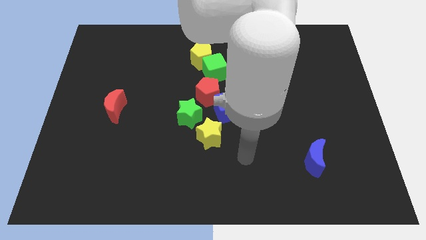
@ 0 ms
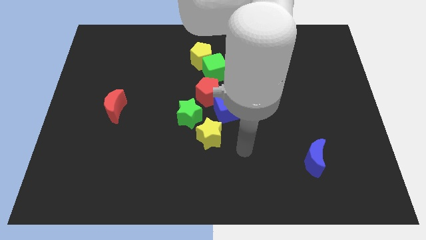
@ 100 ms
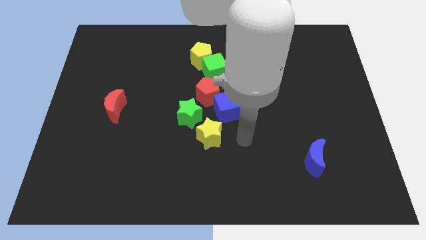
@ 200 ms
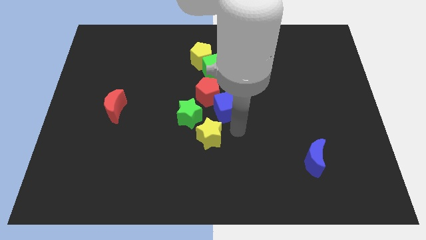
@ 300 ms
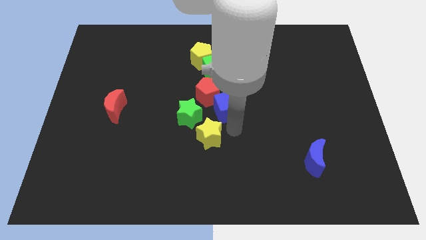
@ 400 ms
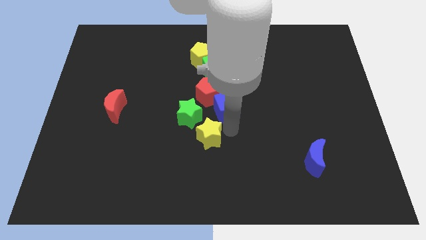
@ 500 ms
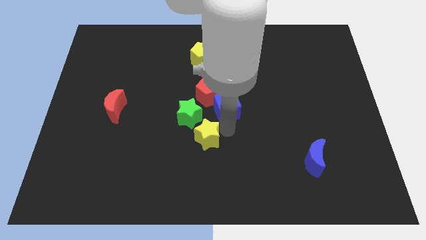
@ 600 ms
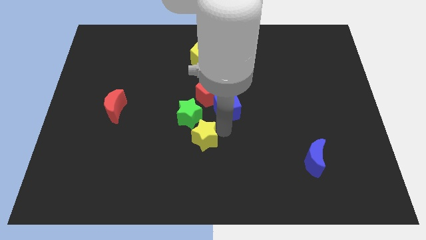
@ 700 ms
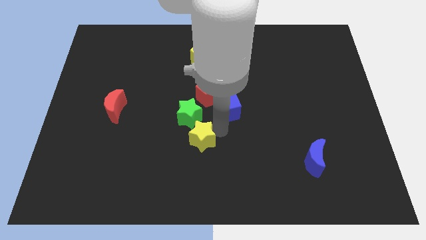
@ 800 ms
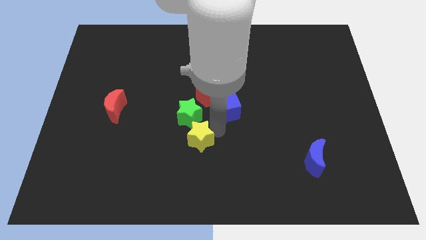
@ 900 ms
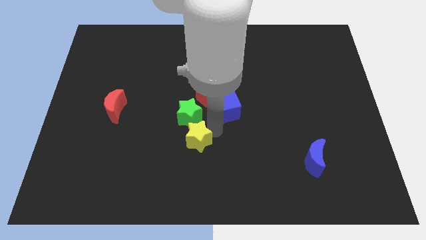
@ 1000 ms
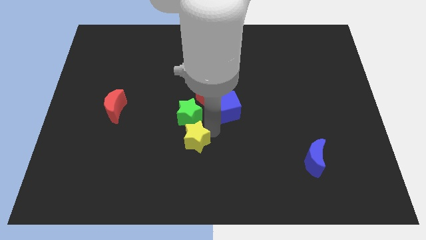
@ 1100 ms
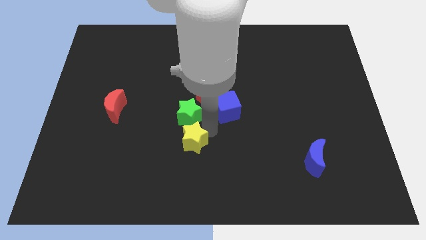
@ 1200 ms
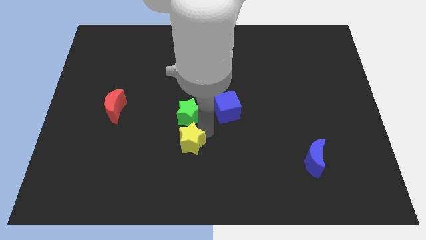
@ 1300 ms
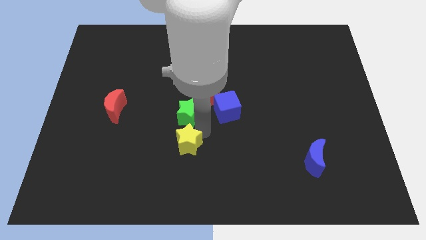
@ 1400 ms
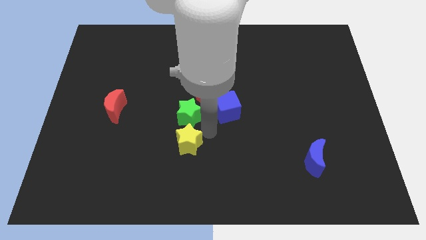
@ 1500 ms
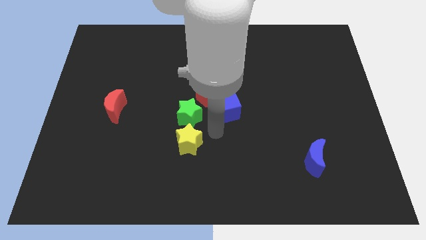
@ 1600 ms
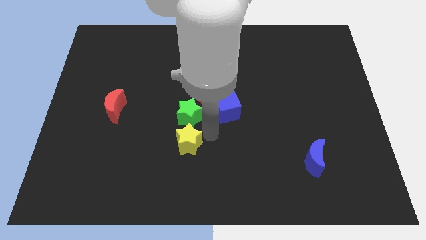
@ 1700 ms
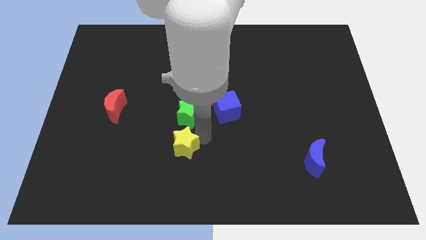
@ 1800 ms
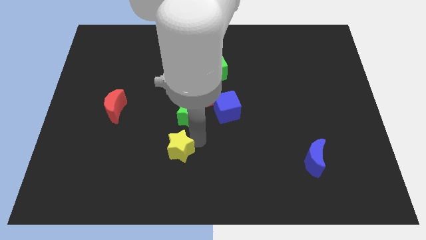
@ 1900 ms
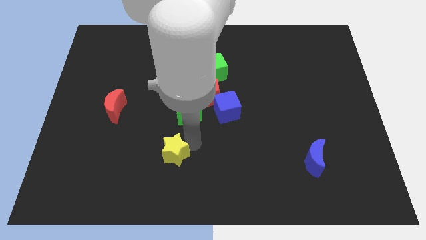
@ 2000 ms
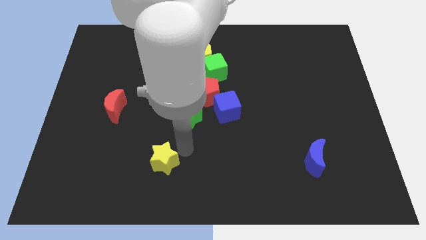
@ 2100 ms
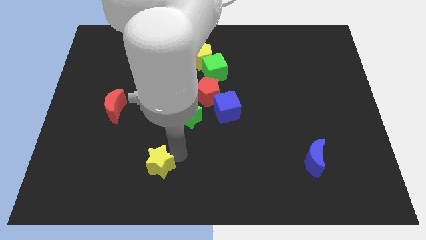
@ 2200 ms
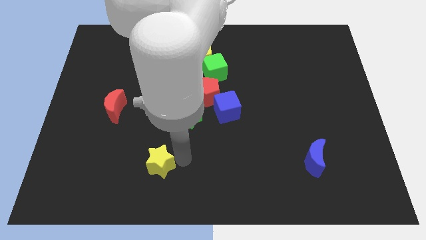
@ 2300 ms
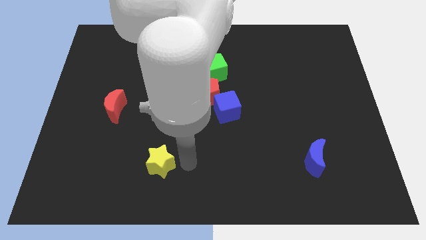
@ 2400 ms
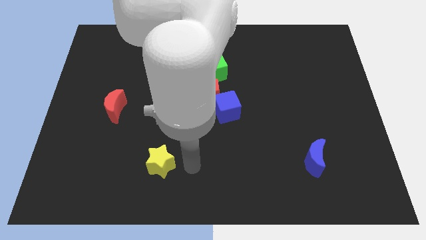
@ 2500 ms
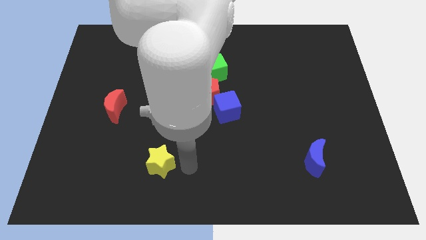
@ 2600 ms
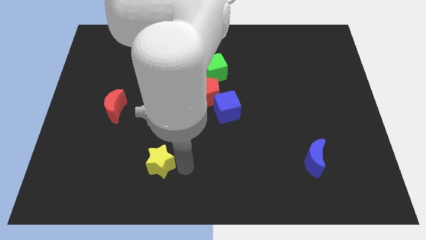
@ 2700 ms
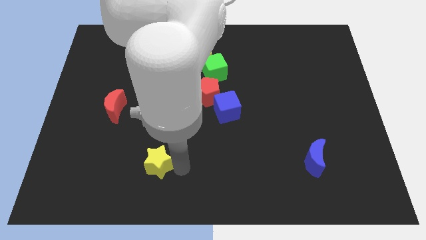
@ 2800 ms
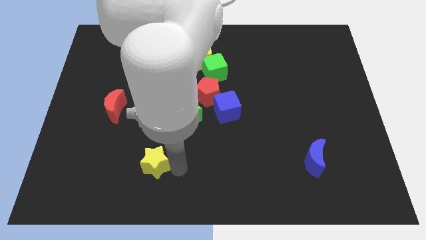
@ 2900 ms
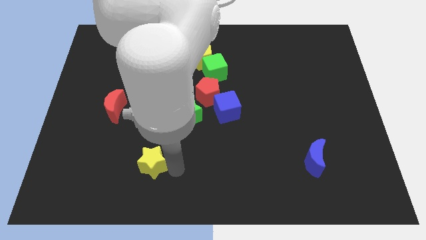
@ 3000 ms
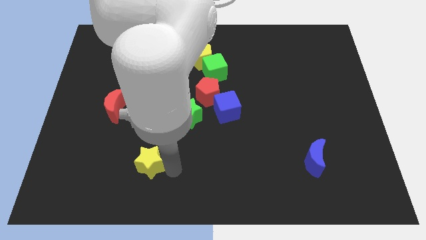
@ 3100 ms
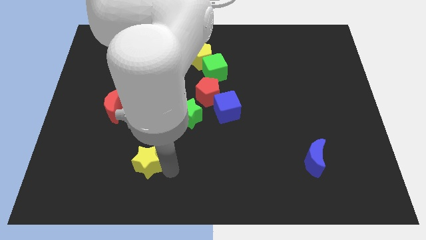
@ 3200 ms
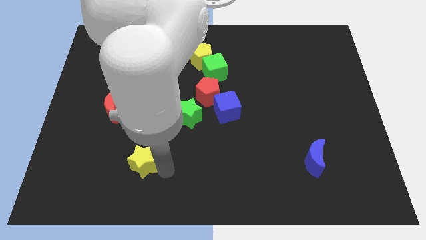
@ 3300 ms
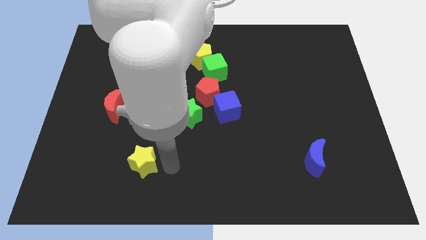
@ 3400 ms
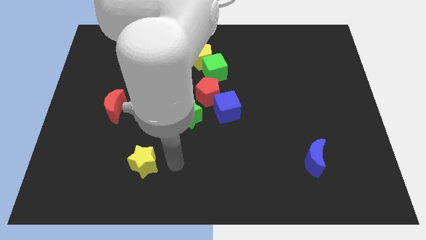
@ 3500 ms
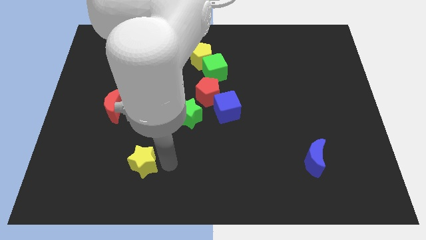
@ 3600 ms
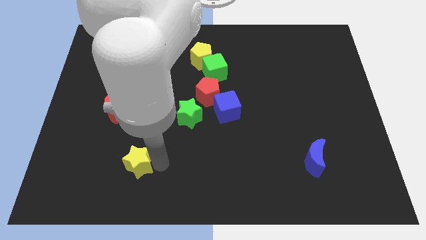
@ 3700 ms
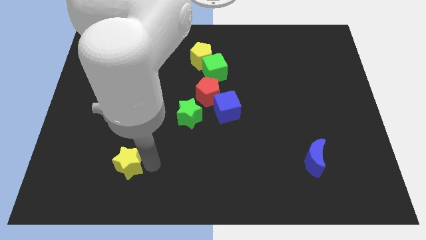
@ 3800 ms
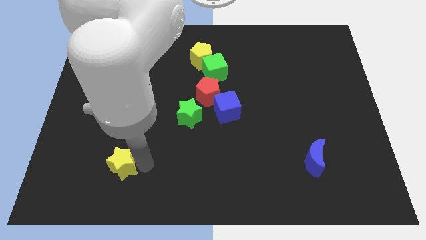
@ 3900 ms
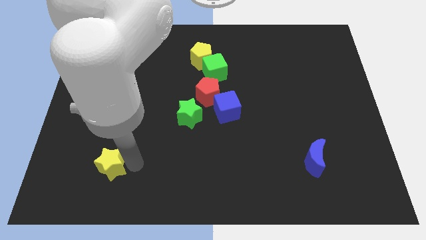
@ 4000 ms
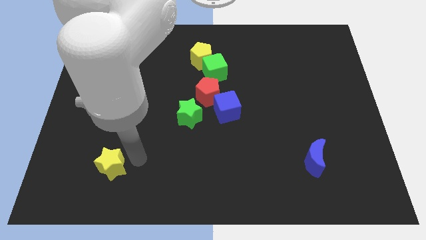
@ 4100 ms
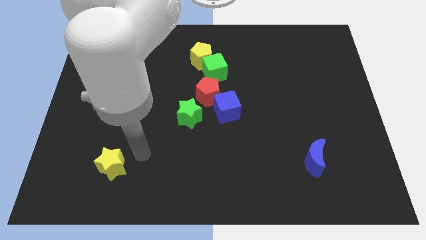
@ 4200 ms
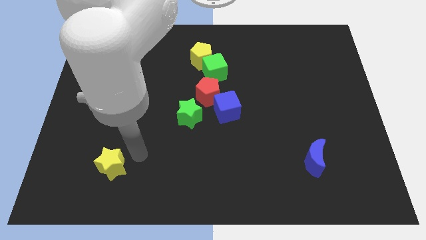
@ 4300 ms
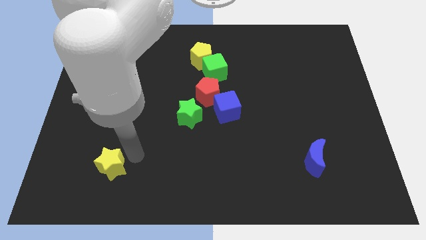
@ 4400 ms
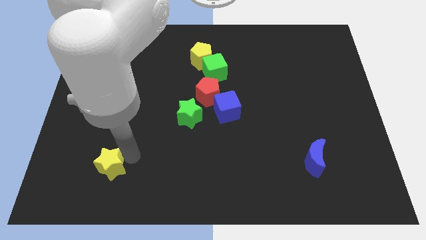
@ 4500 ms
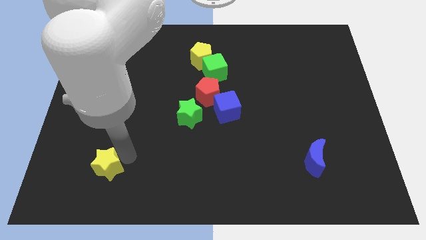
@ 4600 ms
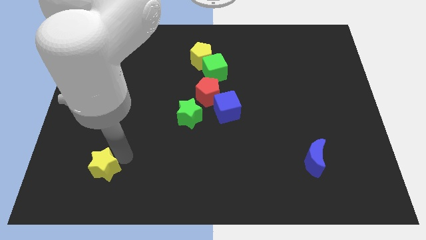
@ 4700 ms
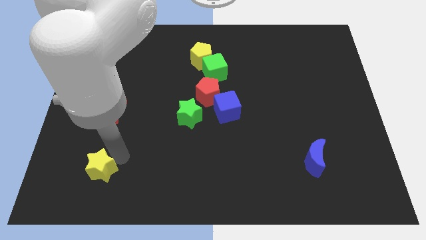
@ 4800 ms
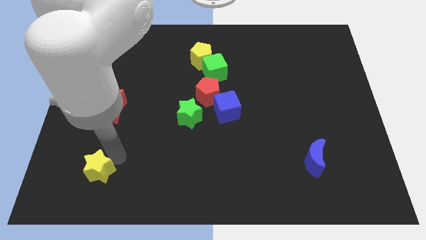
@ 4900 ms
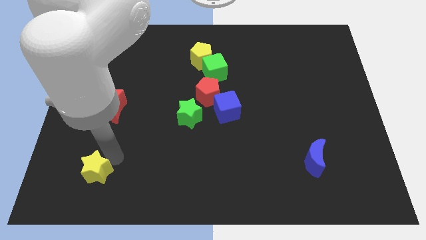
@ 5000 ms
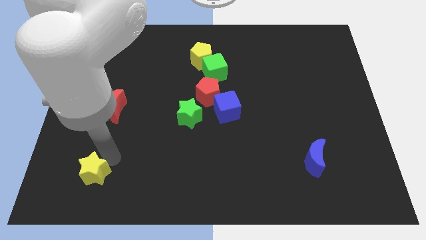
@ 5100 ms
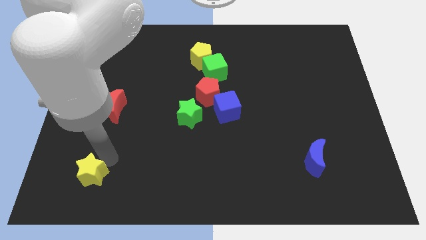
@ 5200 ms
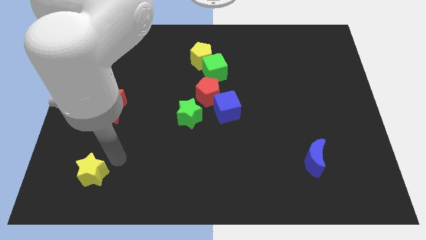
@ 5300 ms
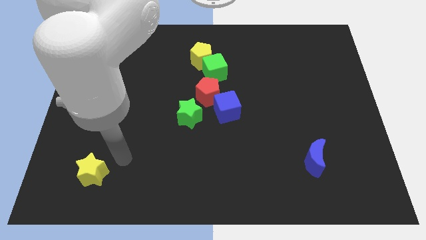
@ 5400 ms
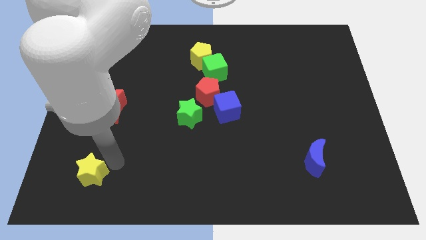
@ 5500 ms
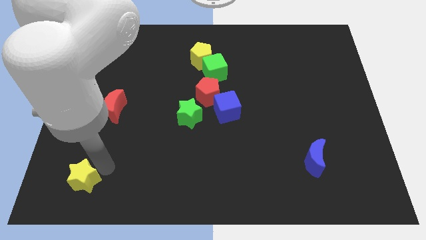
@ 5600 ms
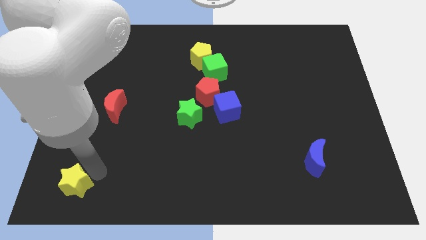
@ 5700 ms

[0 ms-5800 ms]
push the yellow star to the bottom left corner

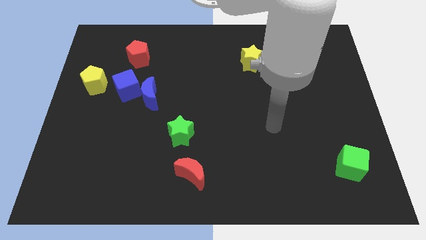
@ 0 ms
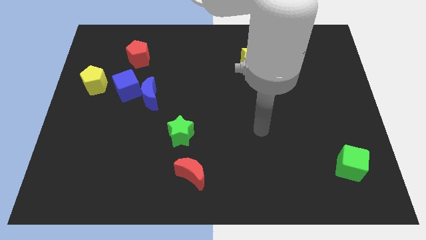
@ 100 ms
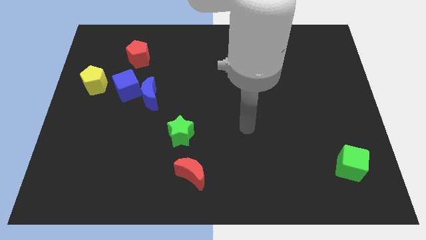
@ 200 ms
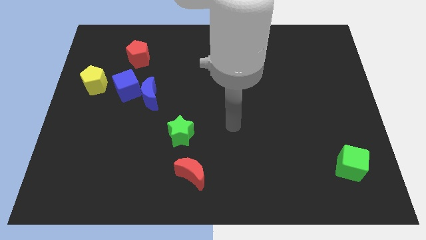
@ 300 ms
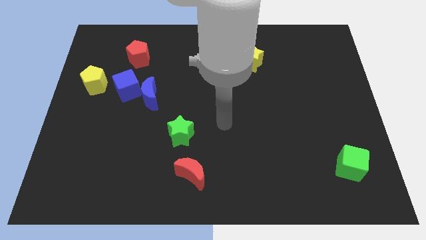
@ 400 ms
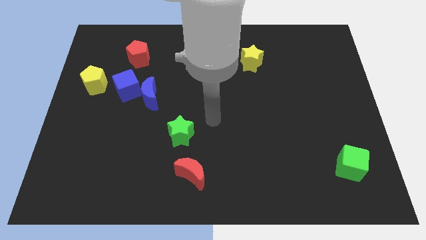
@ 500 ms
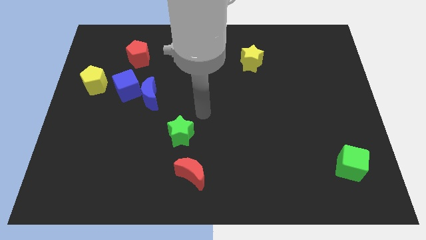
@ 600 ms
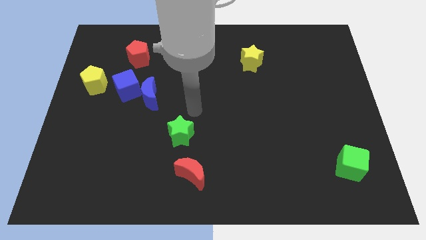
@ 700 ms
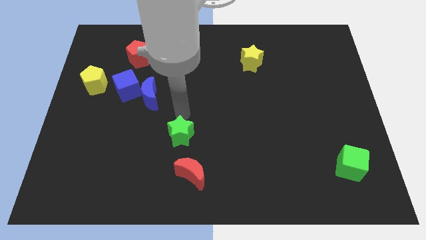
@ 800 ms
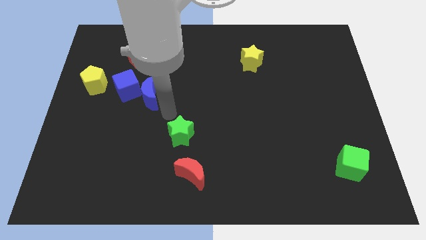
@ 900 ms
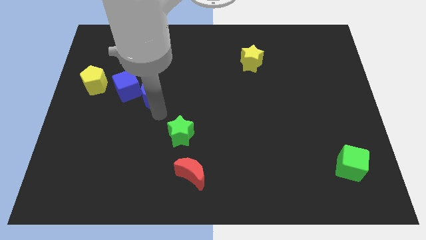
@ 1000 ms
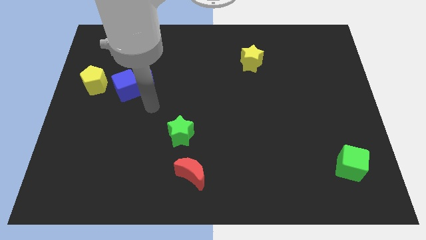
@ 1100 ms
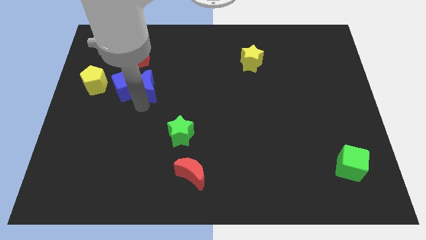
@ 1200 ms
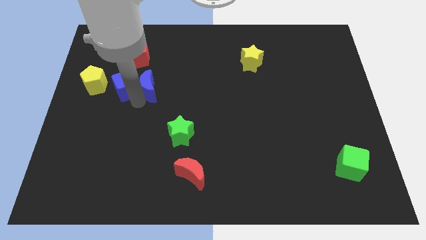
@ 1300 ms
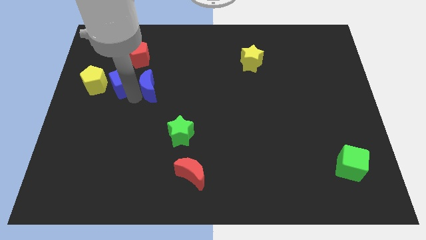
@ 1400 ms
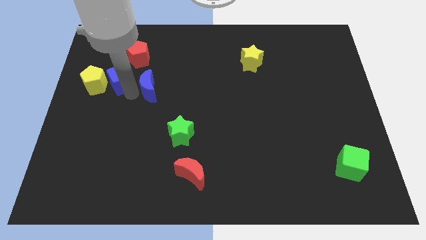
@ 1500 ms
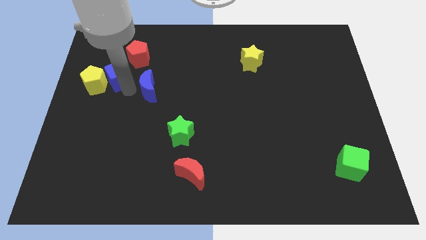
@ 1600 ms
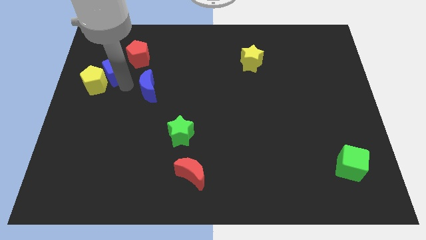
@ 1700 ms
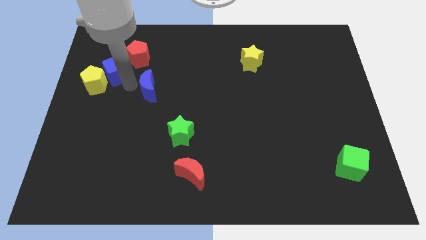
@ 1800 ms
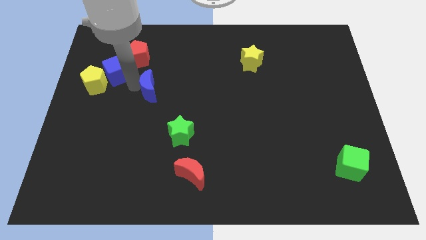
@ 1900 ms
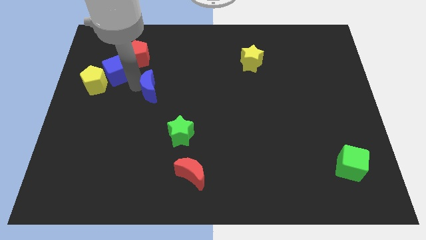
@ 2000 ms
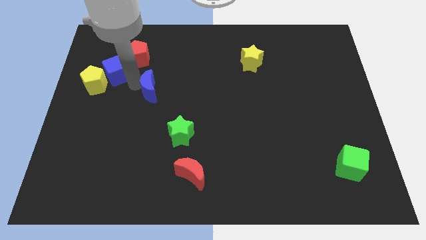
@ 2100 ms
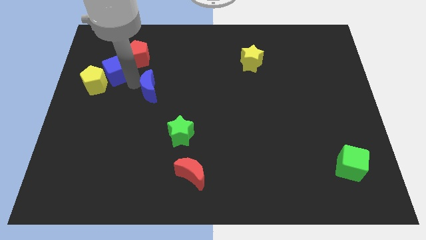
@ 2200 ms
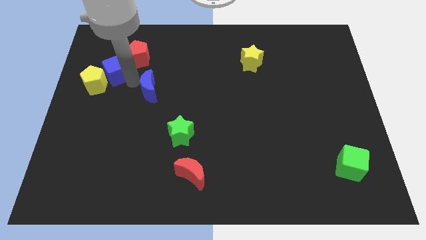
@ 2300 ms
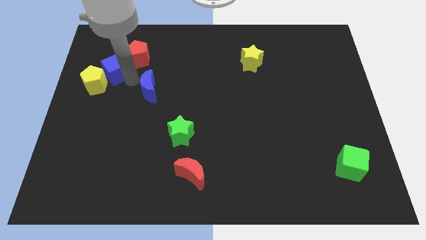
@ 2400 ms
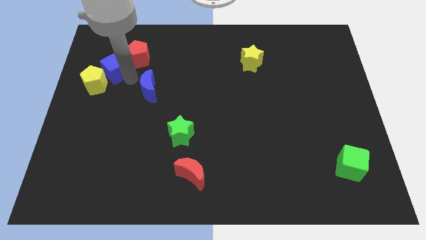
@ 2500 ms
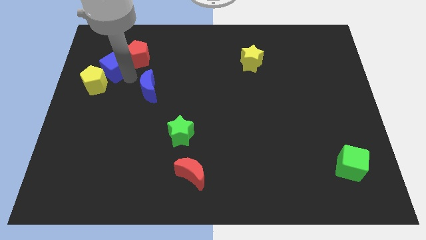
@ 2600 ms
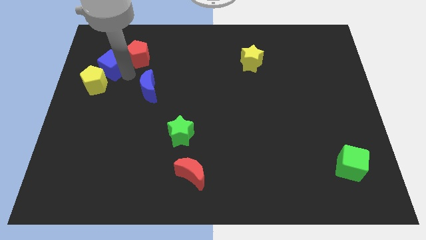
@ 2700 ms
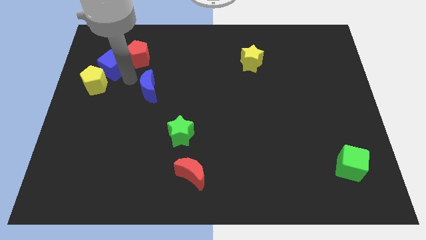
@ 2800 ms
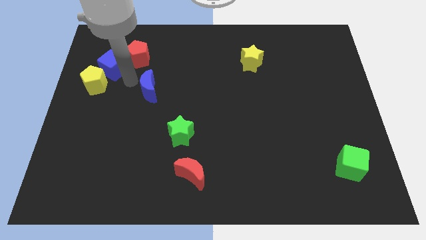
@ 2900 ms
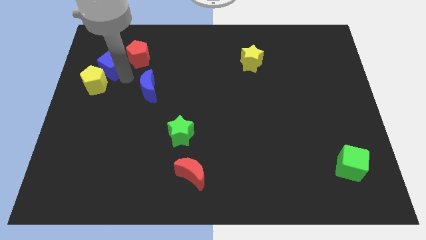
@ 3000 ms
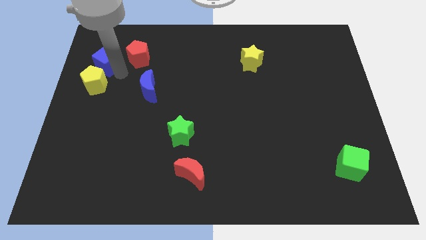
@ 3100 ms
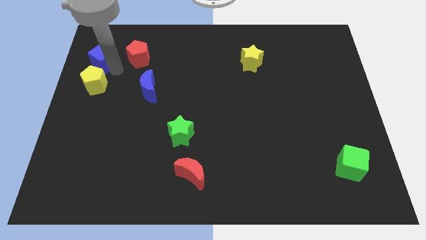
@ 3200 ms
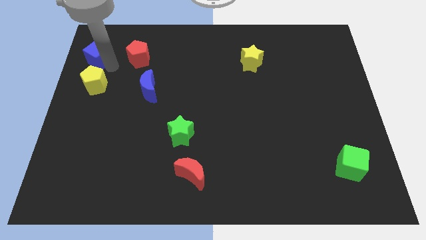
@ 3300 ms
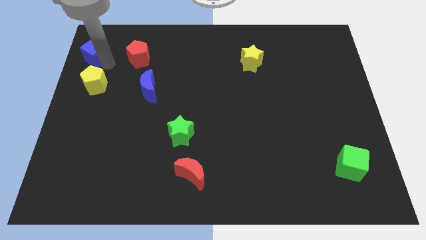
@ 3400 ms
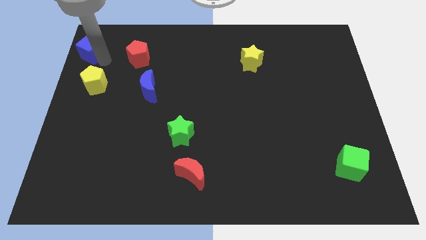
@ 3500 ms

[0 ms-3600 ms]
push the blue cube to the top left corner
